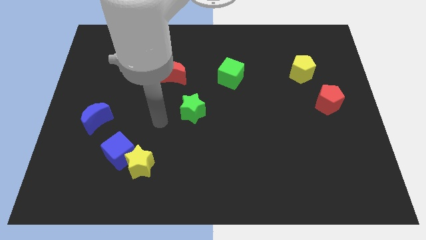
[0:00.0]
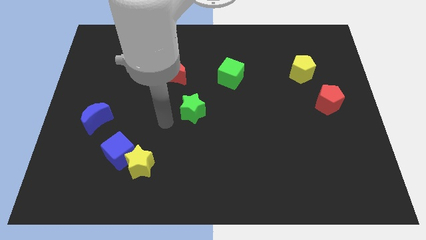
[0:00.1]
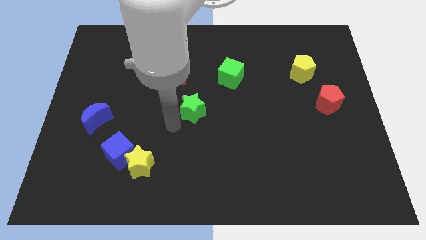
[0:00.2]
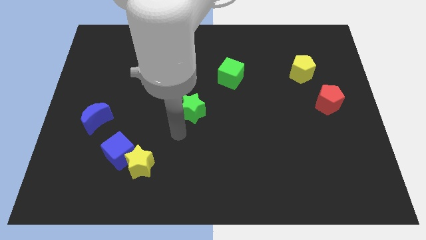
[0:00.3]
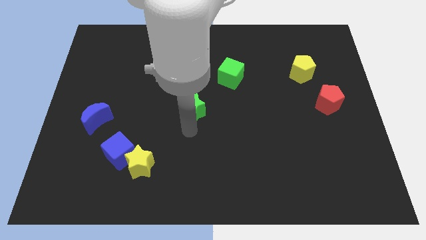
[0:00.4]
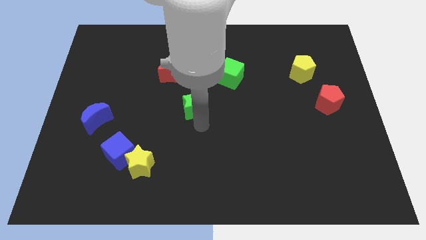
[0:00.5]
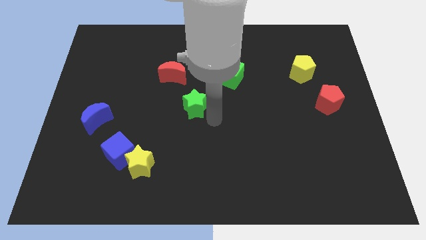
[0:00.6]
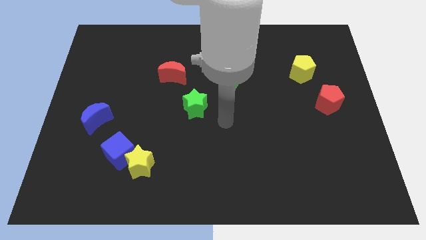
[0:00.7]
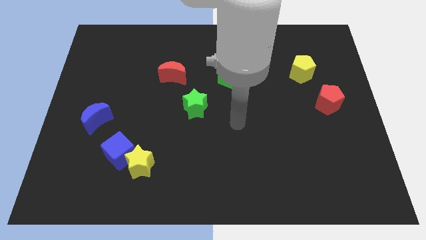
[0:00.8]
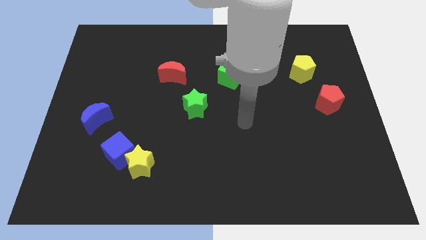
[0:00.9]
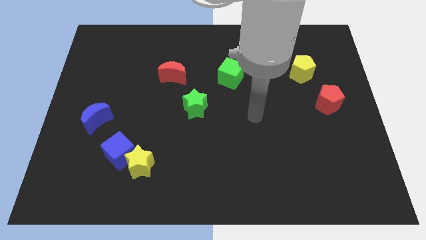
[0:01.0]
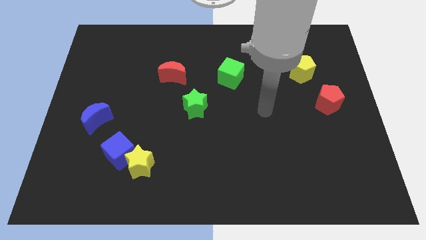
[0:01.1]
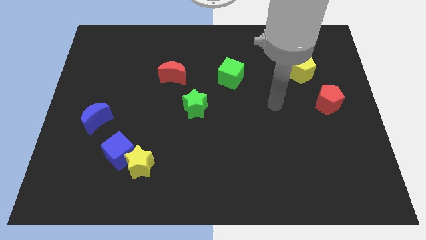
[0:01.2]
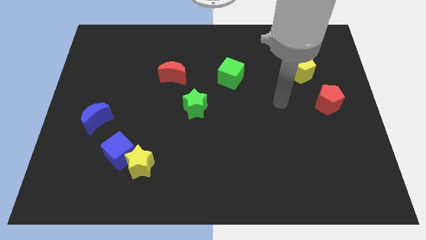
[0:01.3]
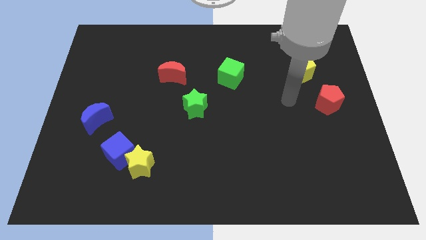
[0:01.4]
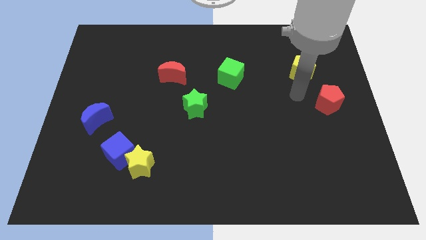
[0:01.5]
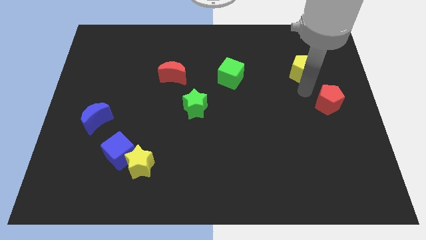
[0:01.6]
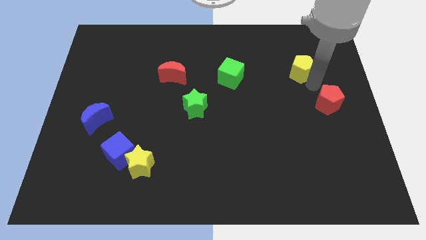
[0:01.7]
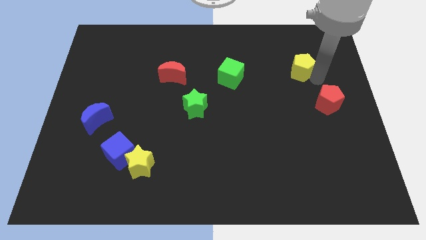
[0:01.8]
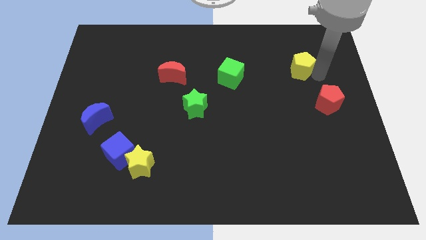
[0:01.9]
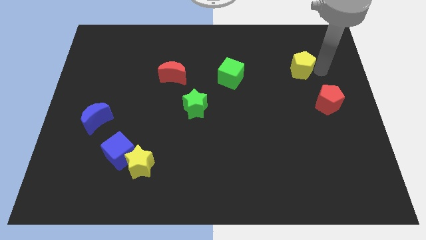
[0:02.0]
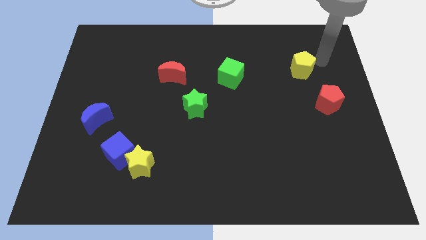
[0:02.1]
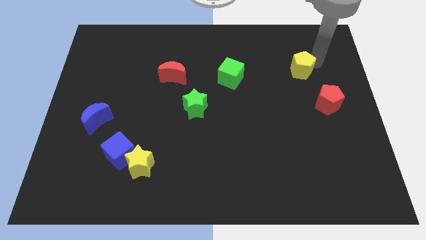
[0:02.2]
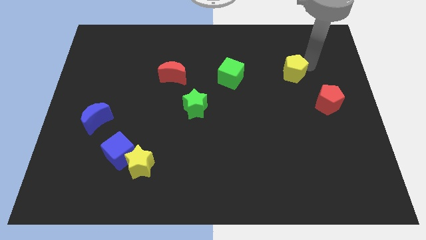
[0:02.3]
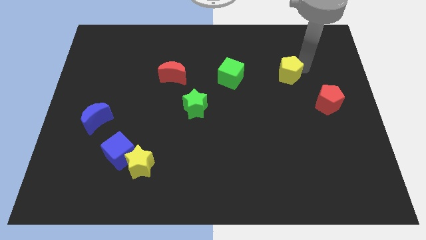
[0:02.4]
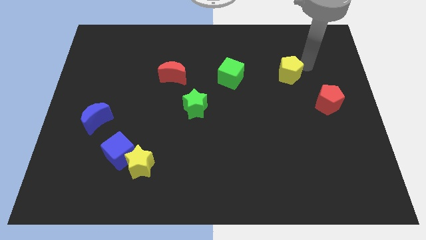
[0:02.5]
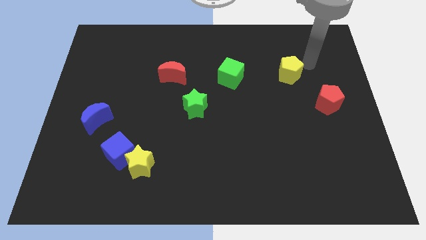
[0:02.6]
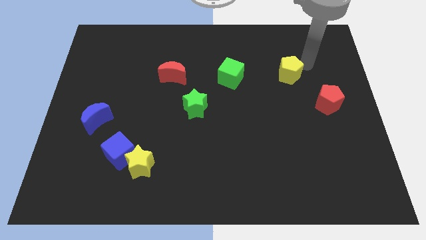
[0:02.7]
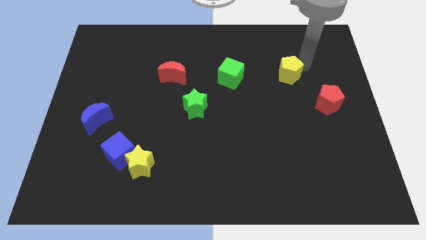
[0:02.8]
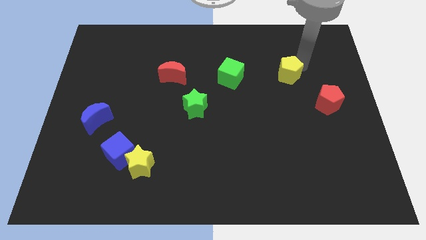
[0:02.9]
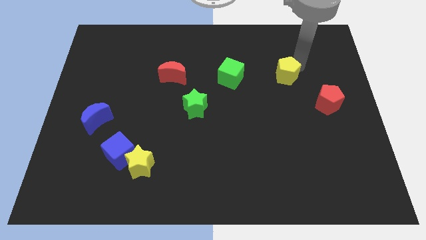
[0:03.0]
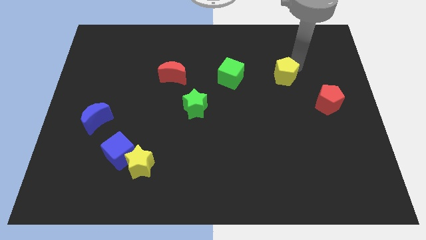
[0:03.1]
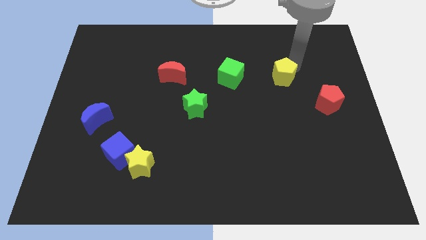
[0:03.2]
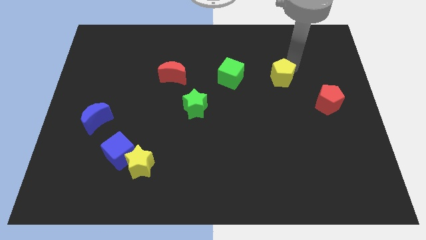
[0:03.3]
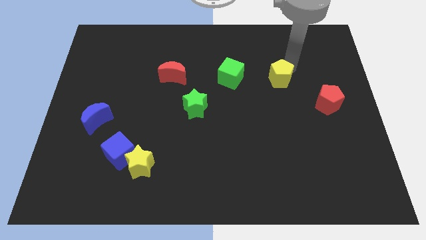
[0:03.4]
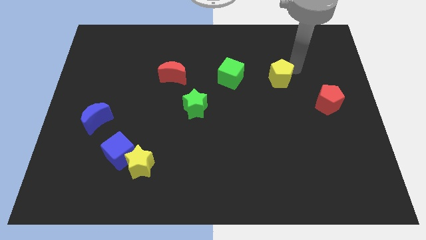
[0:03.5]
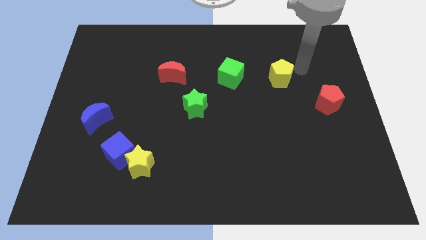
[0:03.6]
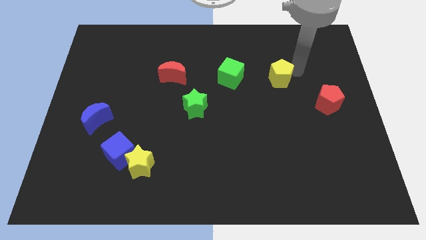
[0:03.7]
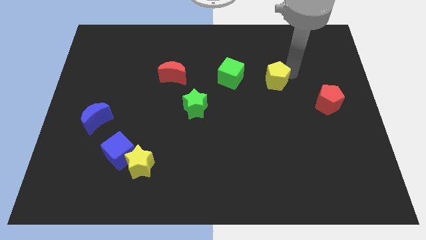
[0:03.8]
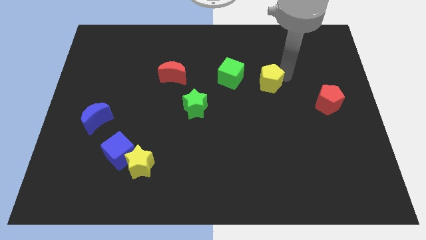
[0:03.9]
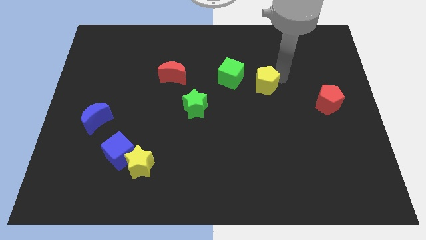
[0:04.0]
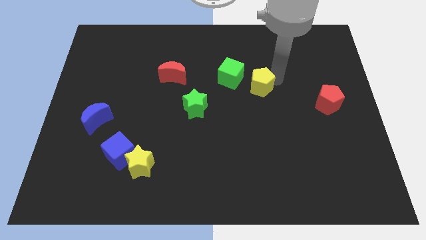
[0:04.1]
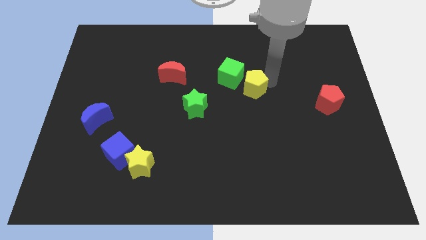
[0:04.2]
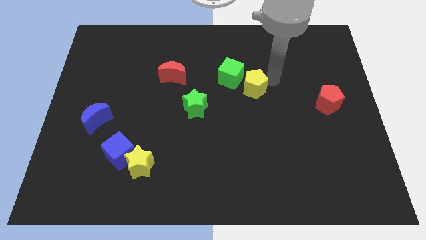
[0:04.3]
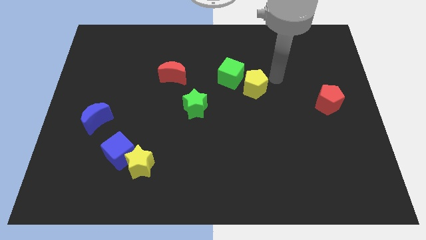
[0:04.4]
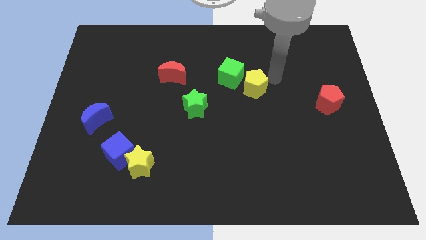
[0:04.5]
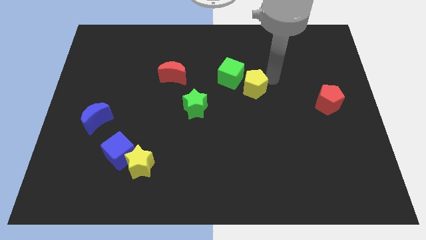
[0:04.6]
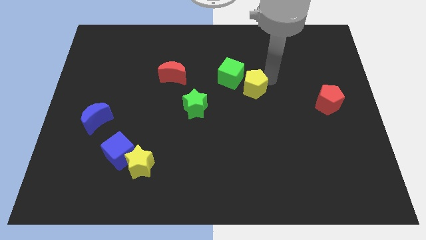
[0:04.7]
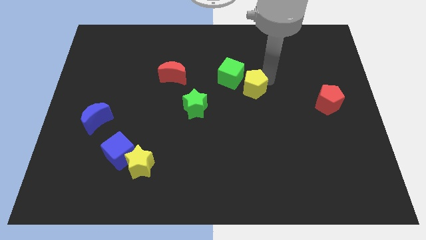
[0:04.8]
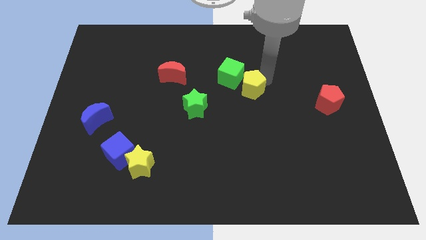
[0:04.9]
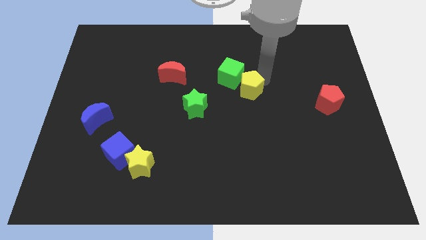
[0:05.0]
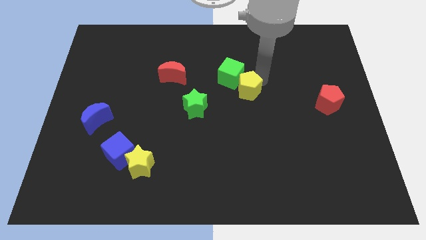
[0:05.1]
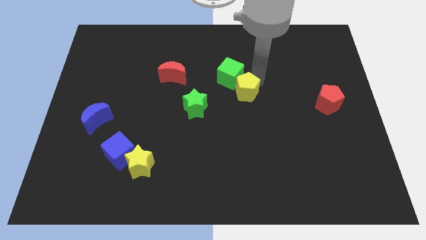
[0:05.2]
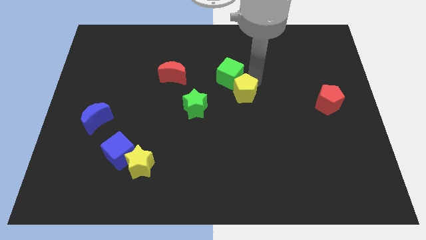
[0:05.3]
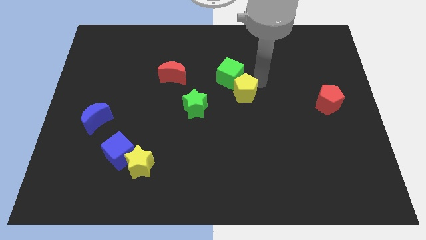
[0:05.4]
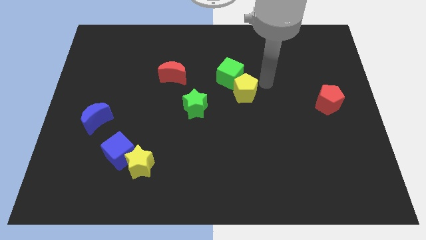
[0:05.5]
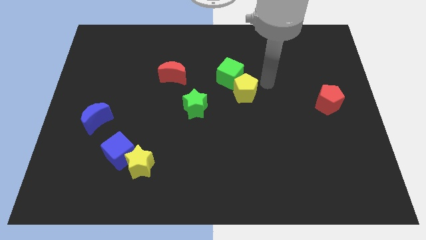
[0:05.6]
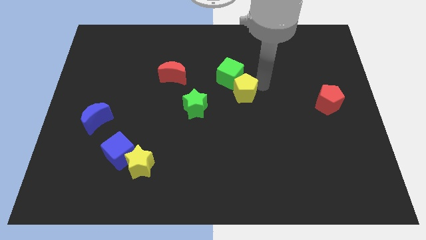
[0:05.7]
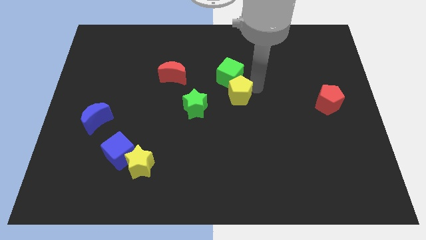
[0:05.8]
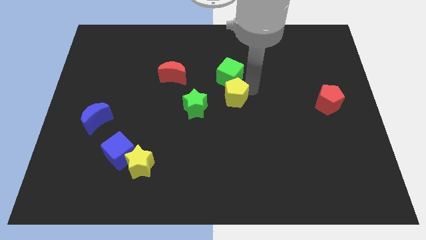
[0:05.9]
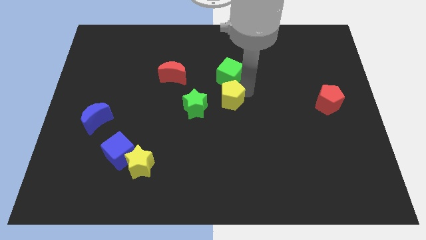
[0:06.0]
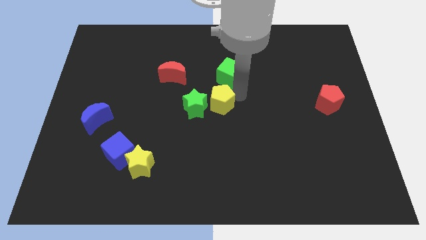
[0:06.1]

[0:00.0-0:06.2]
put the yellow pentagon next to the green star

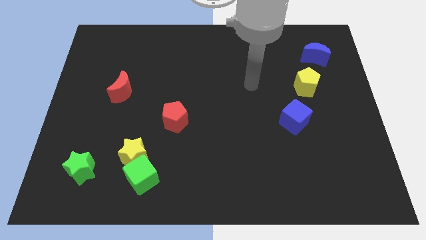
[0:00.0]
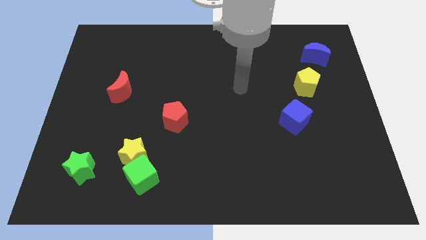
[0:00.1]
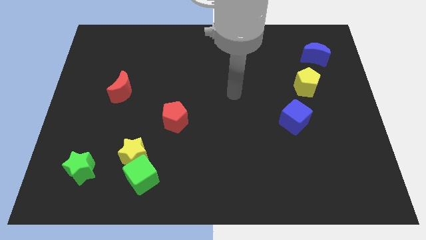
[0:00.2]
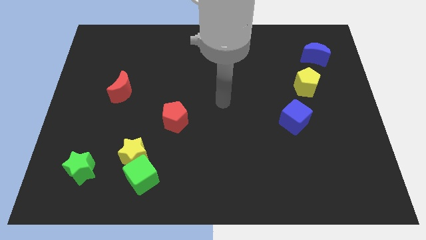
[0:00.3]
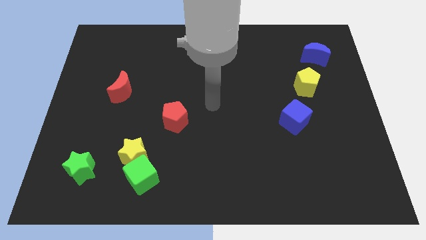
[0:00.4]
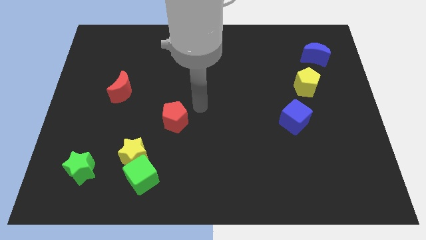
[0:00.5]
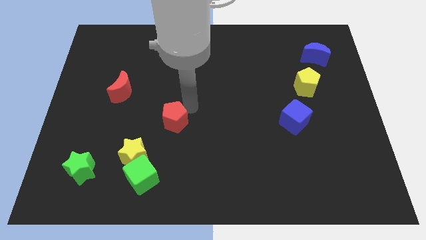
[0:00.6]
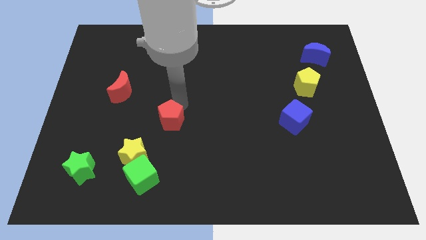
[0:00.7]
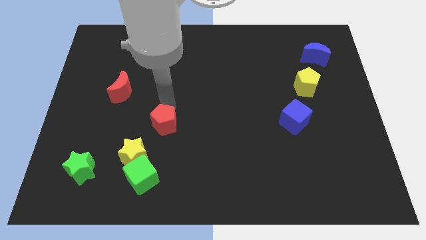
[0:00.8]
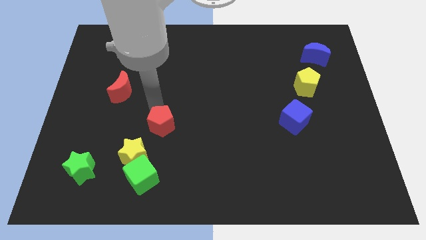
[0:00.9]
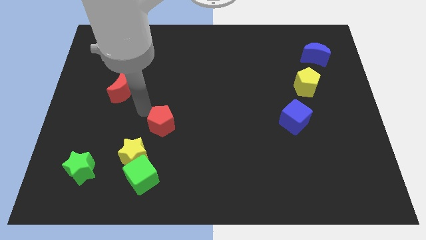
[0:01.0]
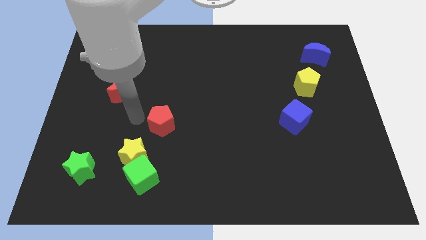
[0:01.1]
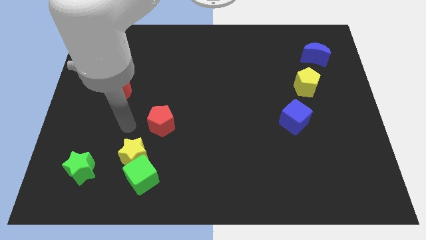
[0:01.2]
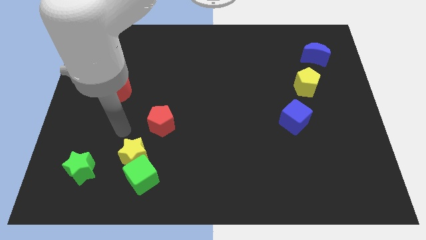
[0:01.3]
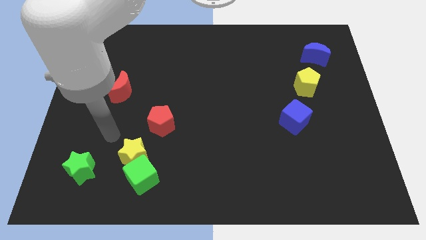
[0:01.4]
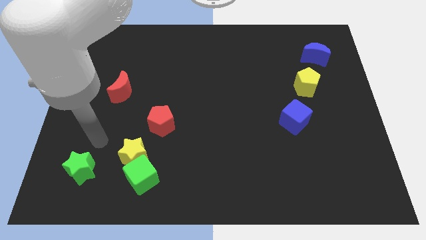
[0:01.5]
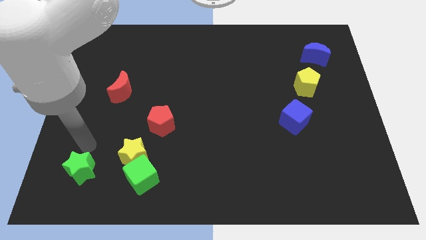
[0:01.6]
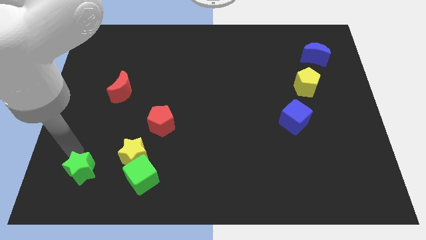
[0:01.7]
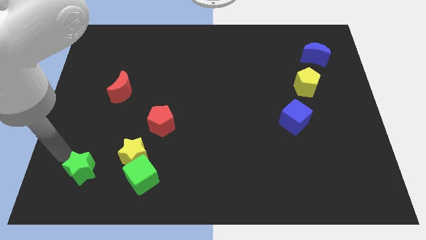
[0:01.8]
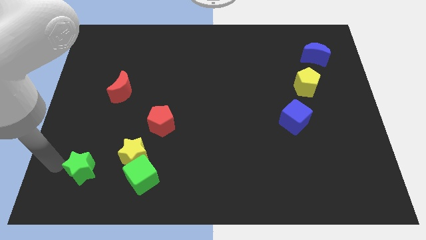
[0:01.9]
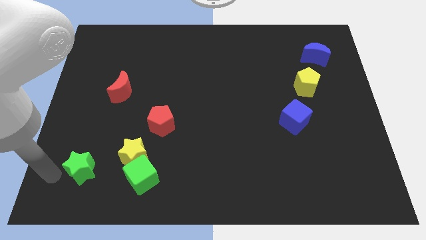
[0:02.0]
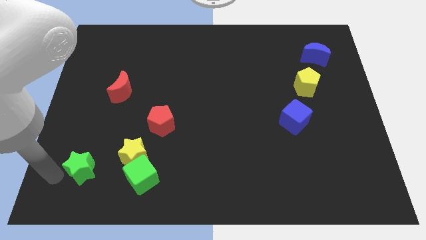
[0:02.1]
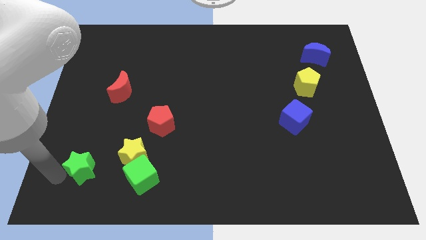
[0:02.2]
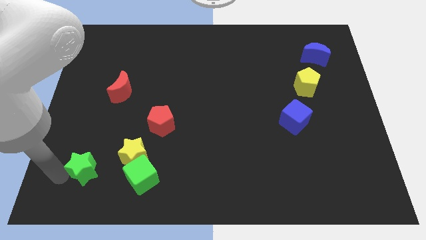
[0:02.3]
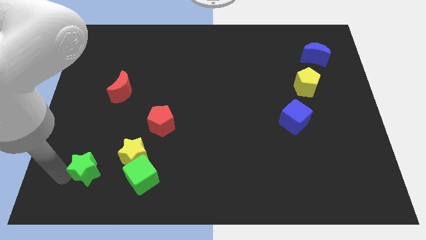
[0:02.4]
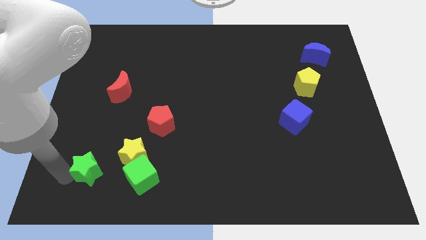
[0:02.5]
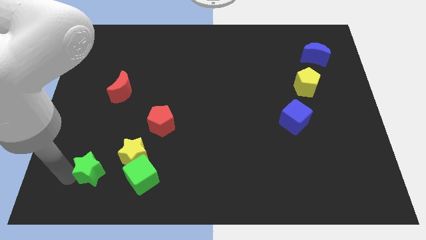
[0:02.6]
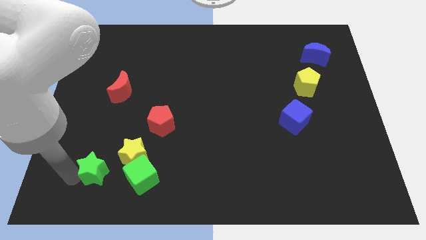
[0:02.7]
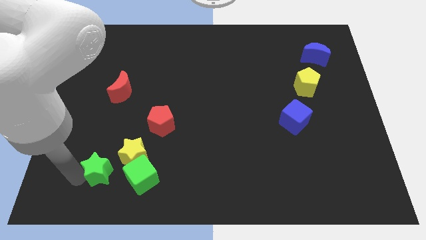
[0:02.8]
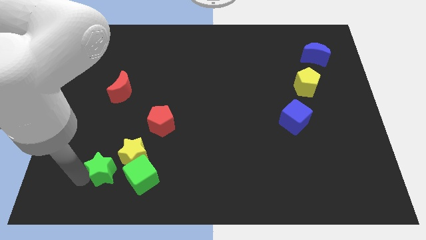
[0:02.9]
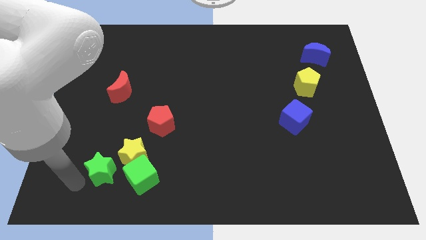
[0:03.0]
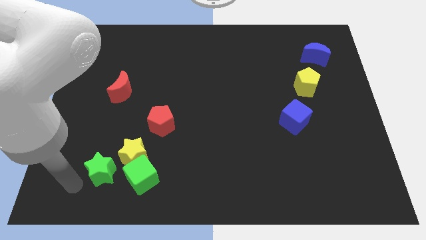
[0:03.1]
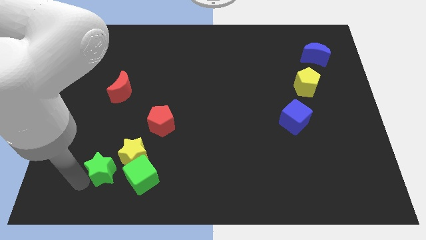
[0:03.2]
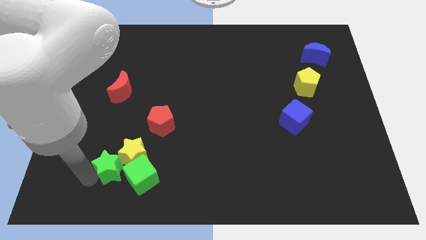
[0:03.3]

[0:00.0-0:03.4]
move the green star close to the yellow star
